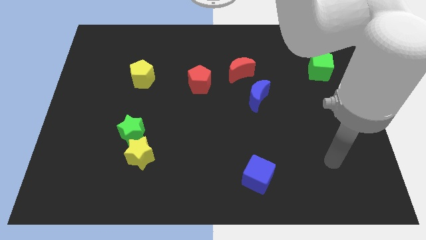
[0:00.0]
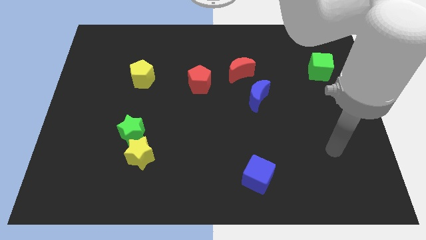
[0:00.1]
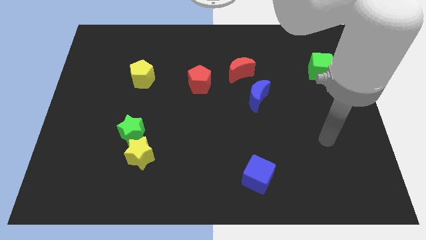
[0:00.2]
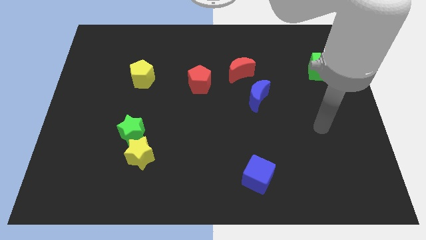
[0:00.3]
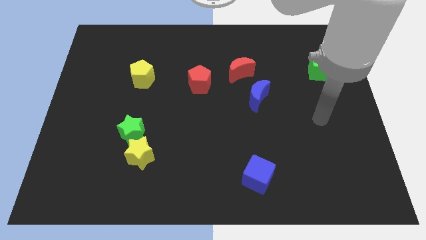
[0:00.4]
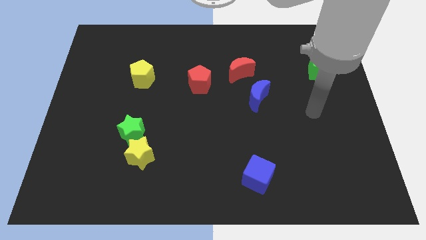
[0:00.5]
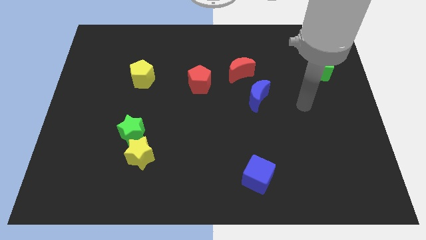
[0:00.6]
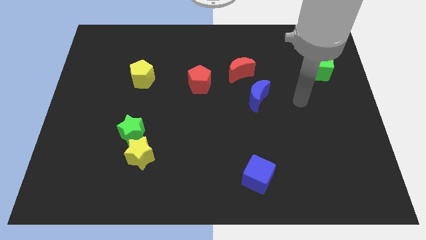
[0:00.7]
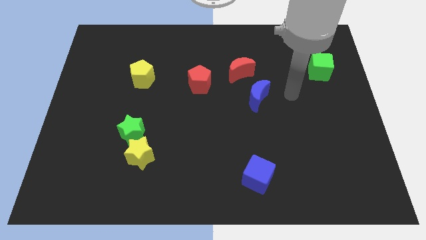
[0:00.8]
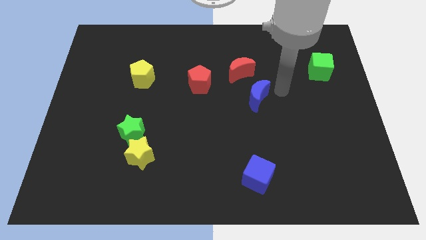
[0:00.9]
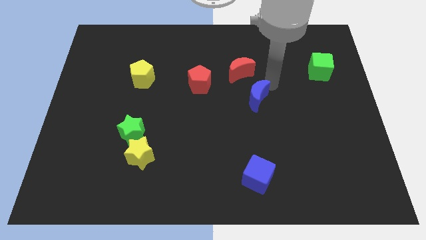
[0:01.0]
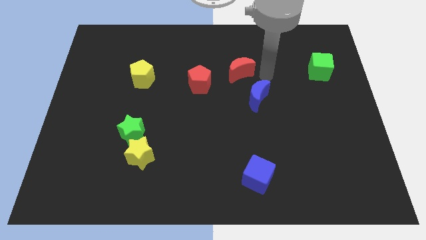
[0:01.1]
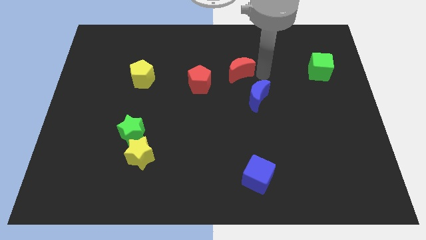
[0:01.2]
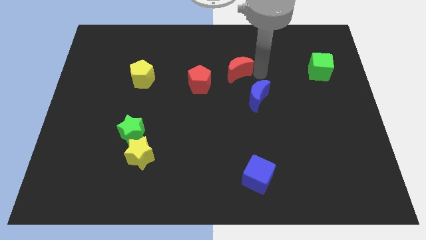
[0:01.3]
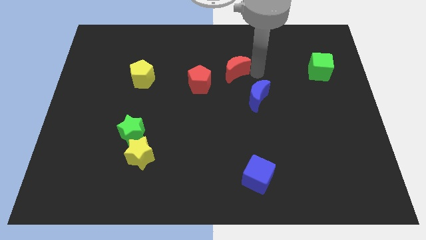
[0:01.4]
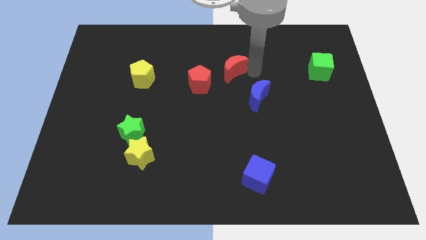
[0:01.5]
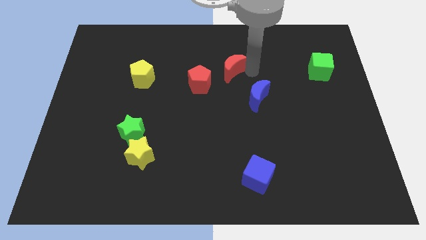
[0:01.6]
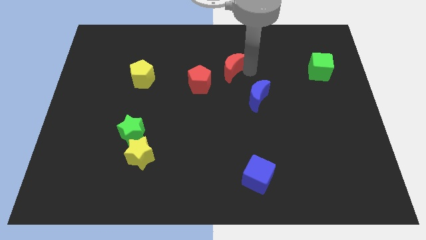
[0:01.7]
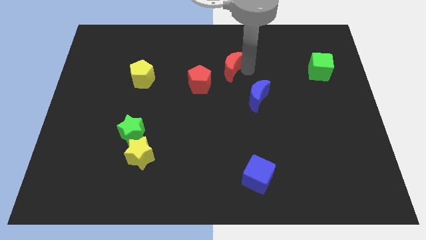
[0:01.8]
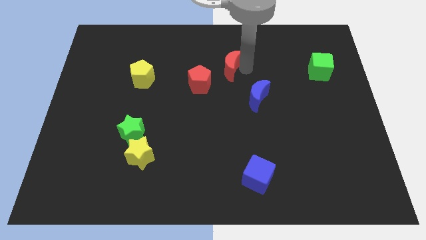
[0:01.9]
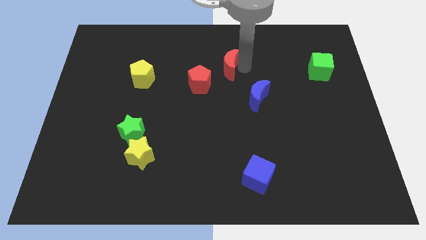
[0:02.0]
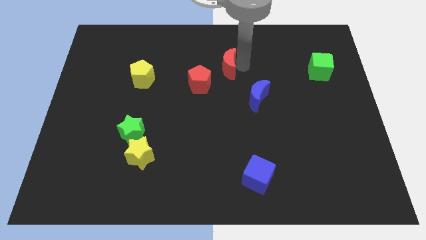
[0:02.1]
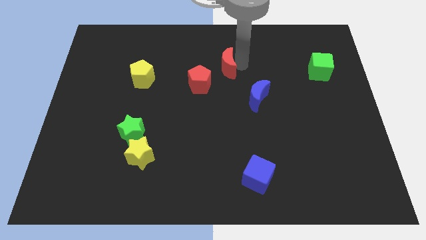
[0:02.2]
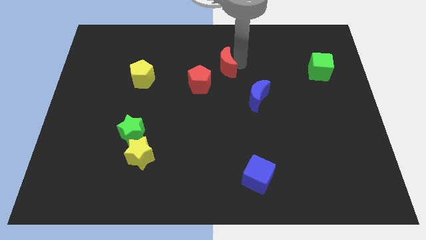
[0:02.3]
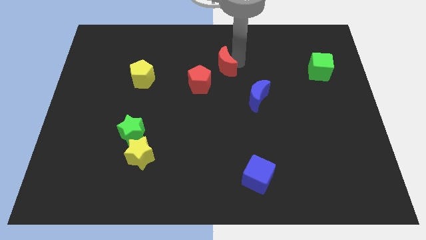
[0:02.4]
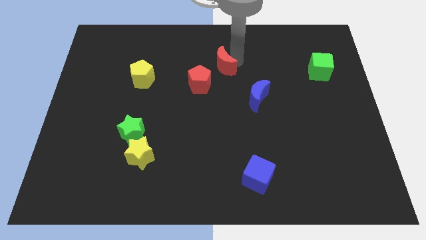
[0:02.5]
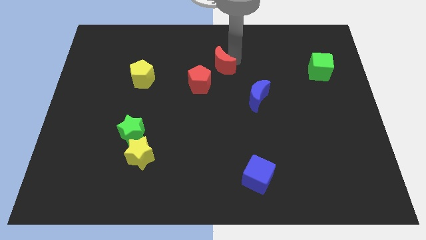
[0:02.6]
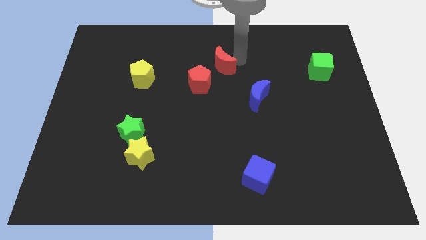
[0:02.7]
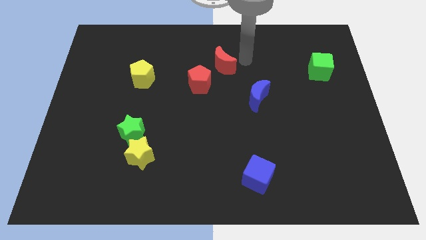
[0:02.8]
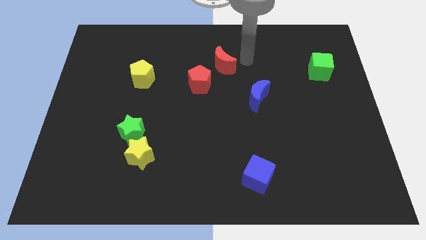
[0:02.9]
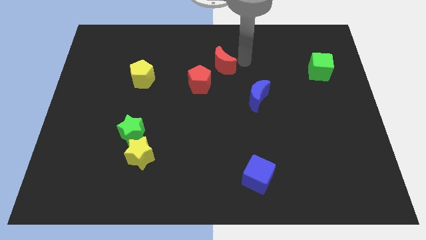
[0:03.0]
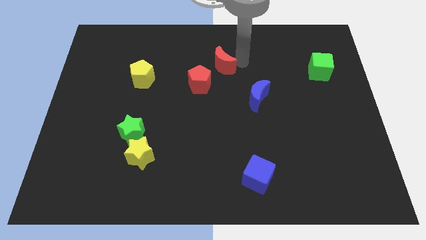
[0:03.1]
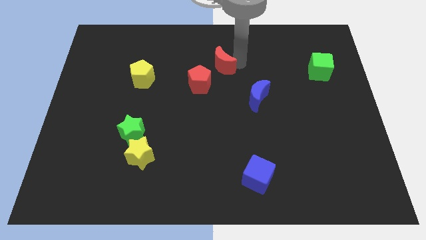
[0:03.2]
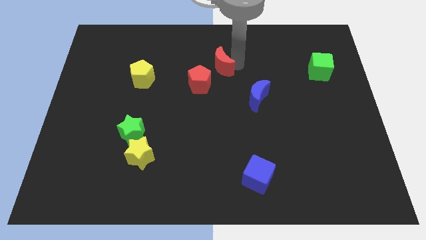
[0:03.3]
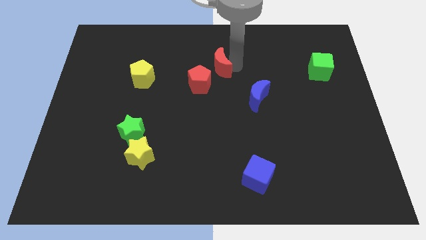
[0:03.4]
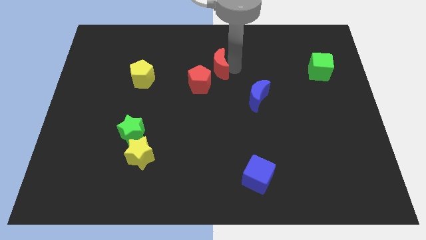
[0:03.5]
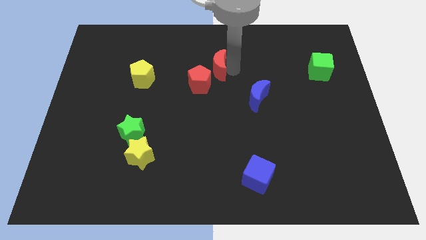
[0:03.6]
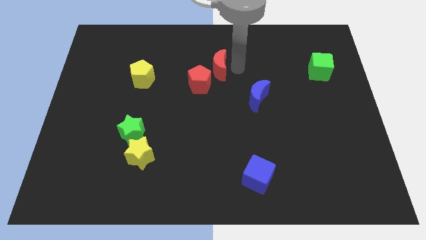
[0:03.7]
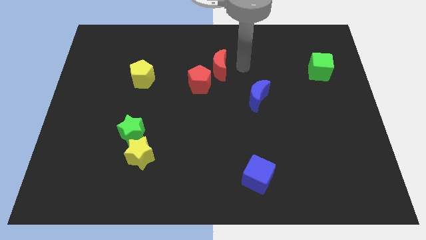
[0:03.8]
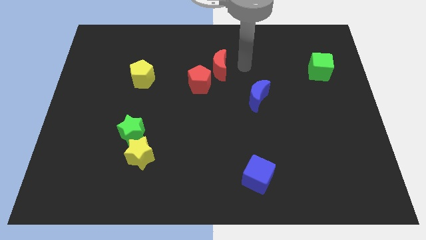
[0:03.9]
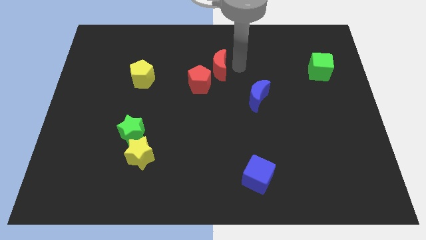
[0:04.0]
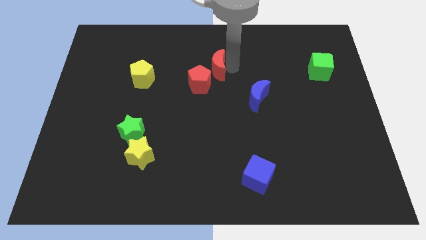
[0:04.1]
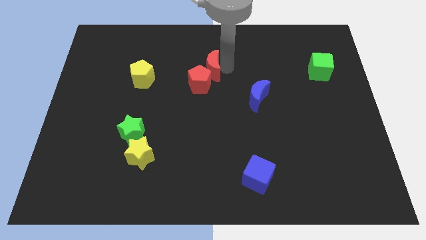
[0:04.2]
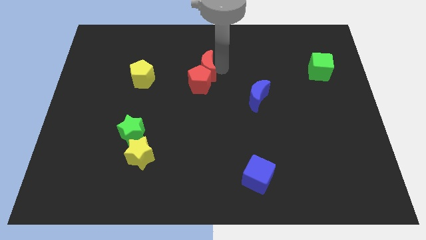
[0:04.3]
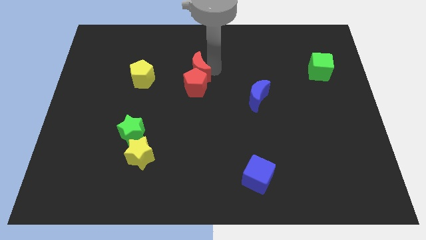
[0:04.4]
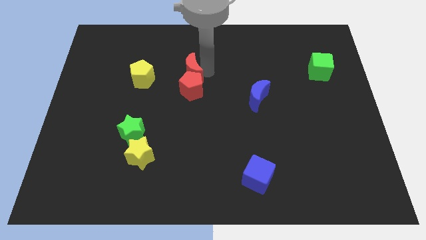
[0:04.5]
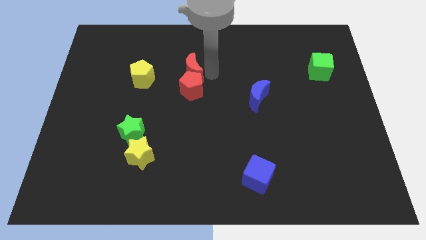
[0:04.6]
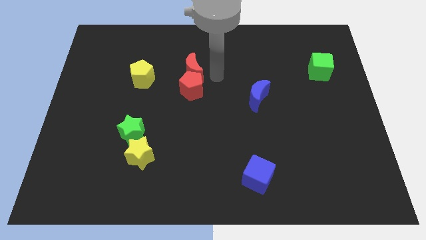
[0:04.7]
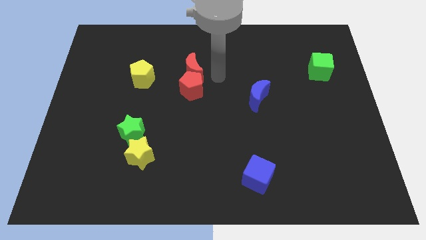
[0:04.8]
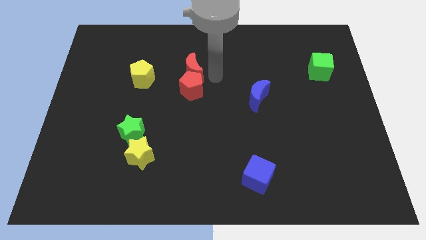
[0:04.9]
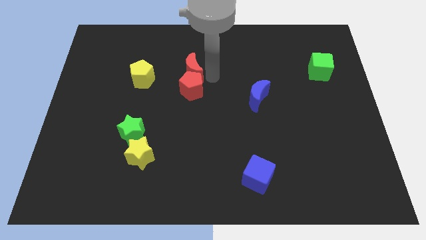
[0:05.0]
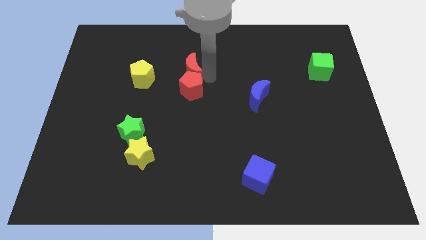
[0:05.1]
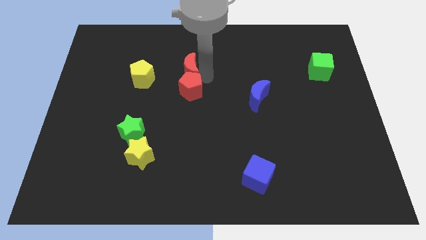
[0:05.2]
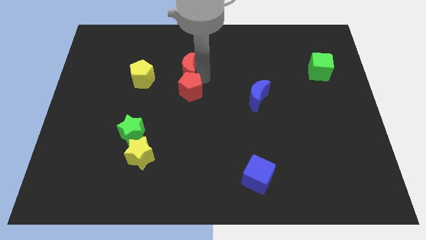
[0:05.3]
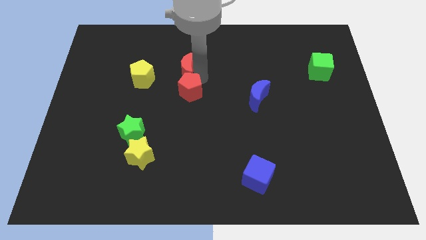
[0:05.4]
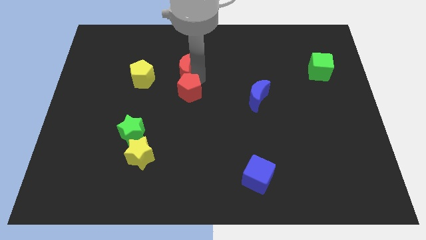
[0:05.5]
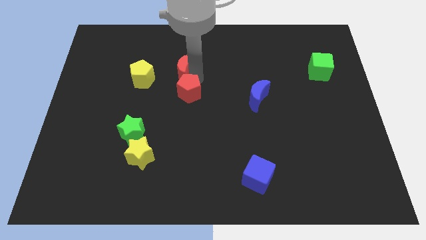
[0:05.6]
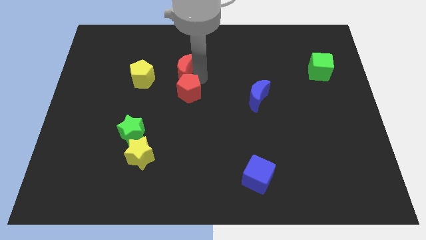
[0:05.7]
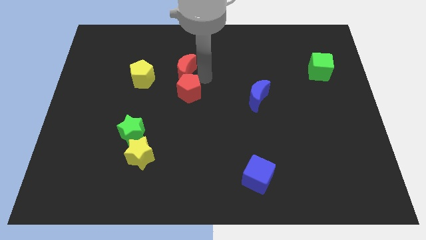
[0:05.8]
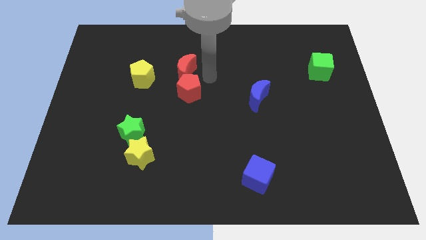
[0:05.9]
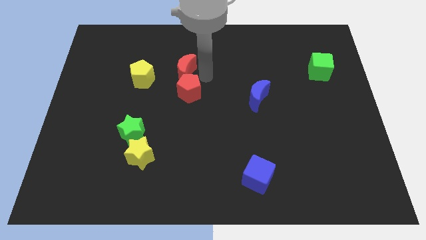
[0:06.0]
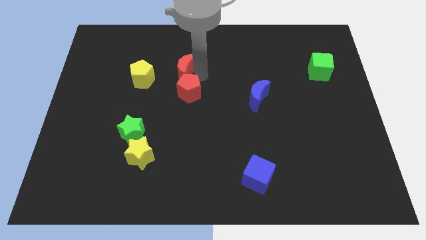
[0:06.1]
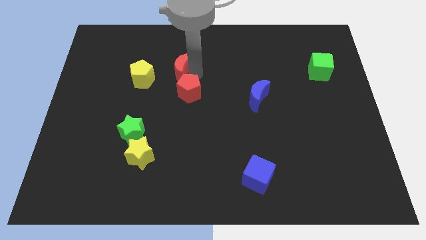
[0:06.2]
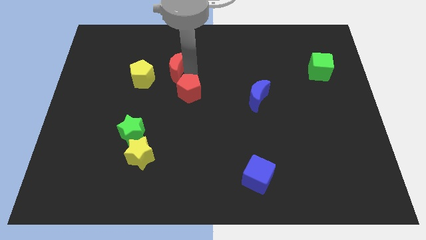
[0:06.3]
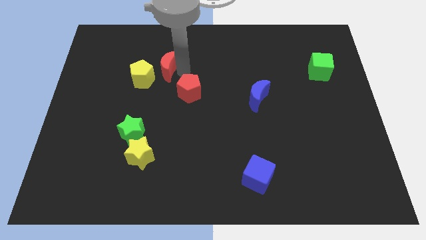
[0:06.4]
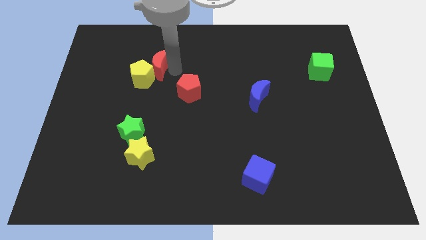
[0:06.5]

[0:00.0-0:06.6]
move the red moon to the left

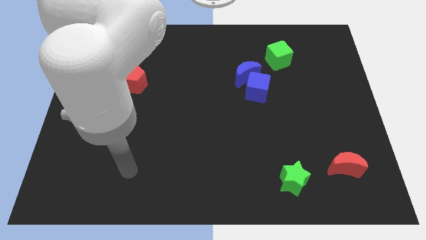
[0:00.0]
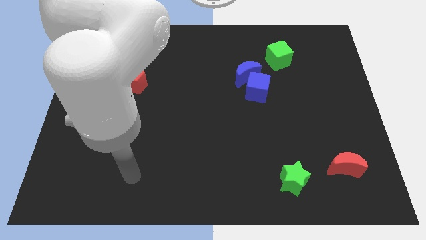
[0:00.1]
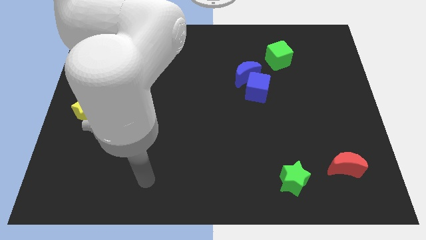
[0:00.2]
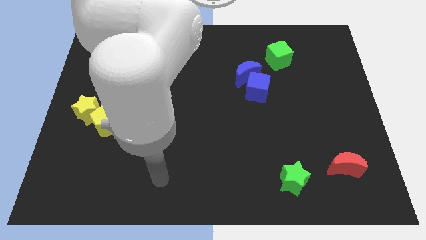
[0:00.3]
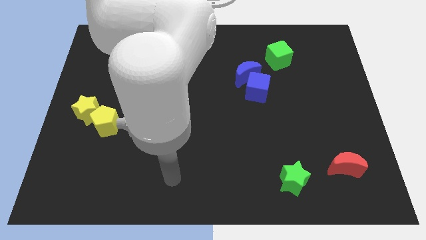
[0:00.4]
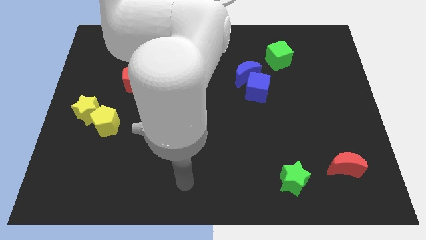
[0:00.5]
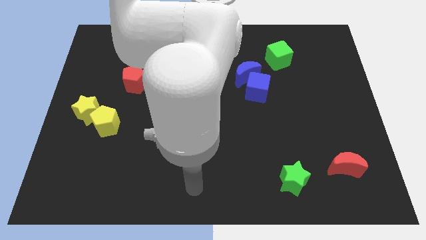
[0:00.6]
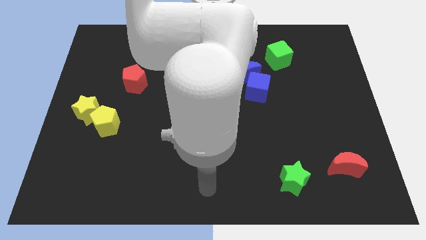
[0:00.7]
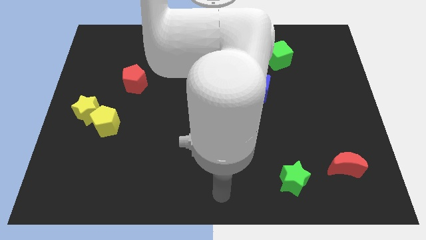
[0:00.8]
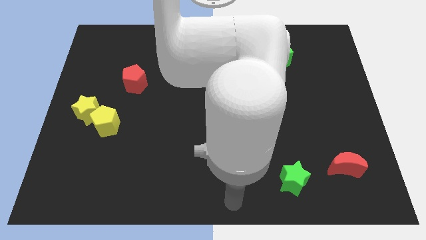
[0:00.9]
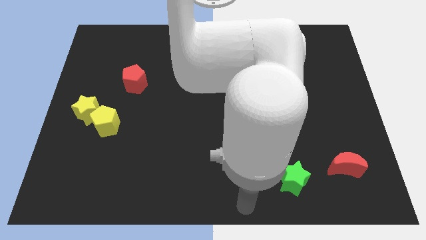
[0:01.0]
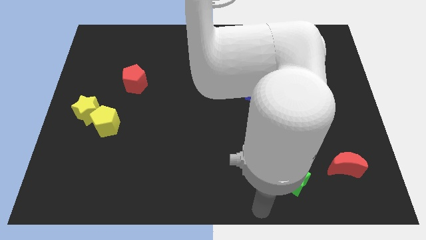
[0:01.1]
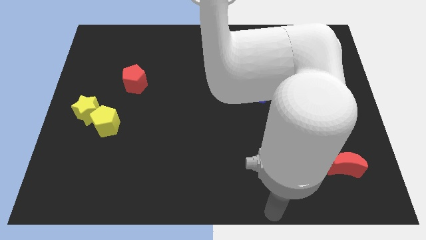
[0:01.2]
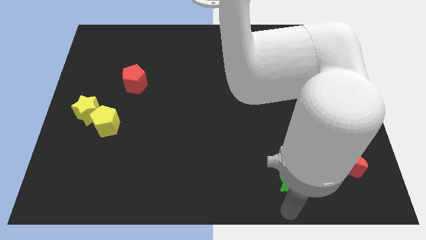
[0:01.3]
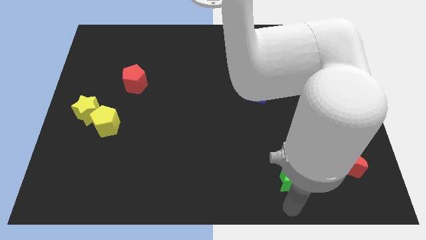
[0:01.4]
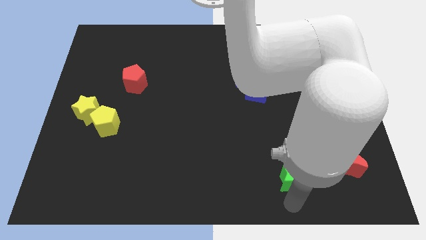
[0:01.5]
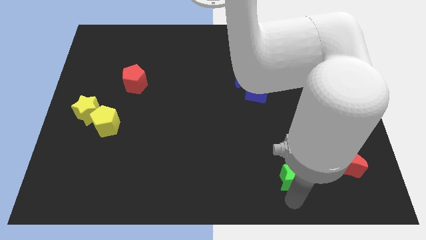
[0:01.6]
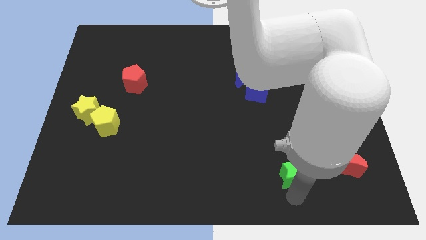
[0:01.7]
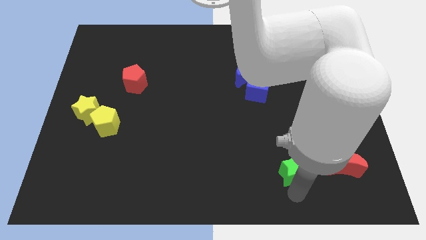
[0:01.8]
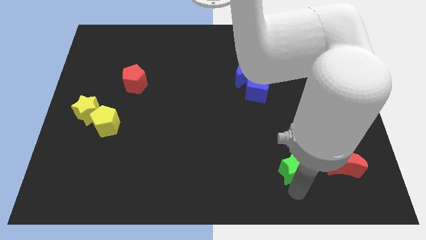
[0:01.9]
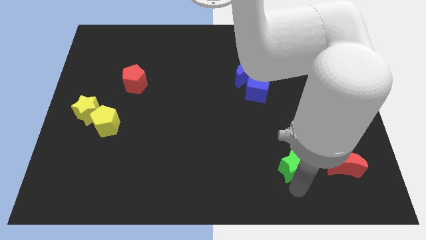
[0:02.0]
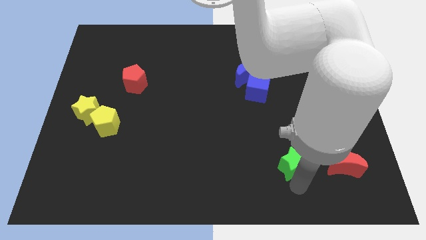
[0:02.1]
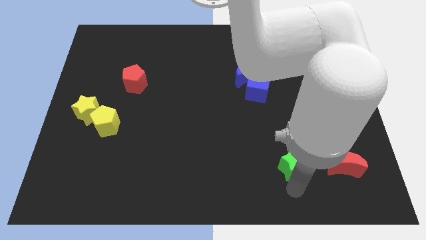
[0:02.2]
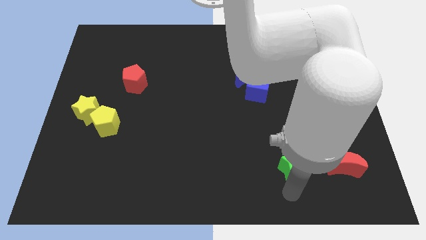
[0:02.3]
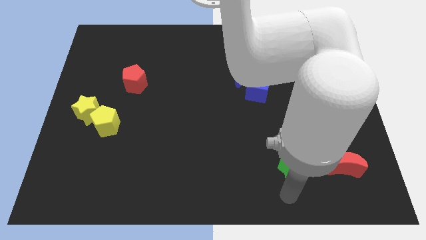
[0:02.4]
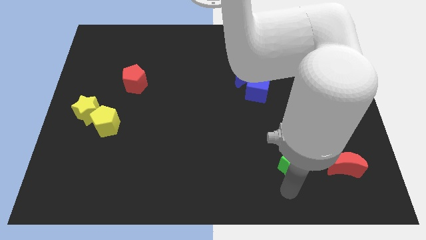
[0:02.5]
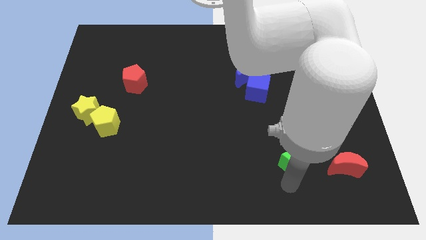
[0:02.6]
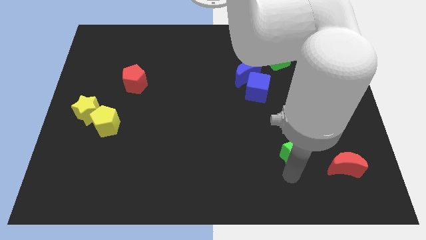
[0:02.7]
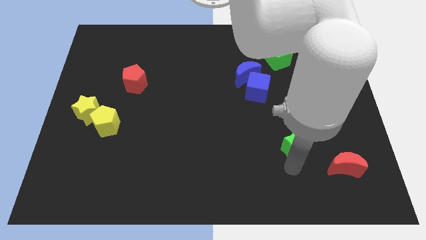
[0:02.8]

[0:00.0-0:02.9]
slide the green star up a little bit
